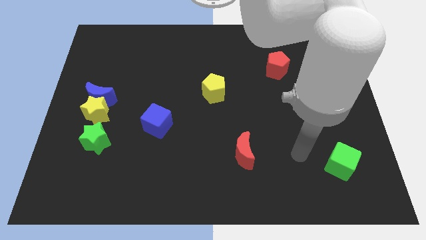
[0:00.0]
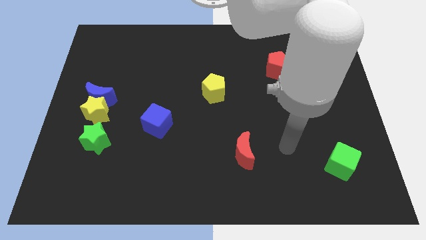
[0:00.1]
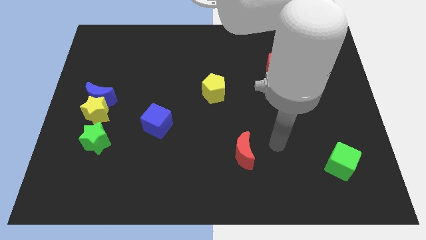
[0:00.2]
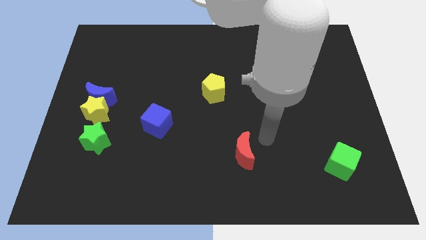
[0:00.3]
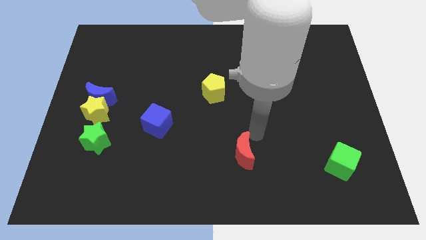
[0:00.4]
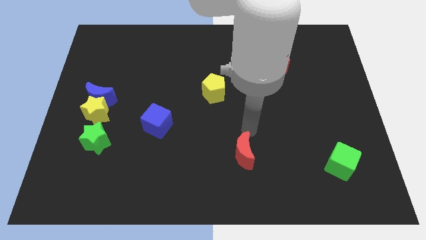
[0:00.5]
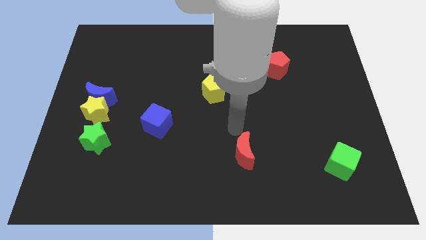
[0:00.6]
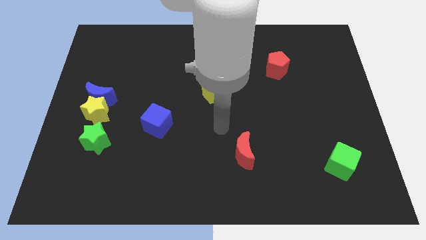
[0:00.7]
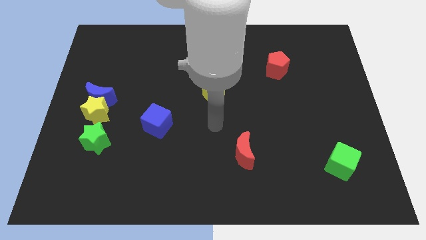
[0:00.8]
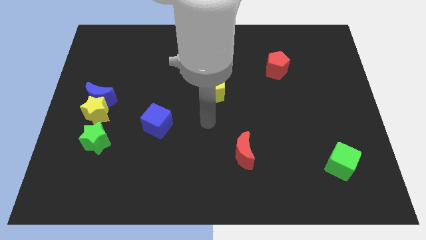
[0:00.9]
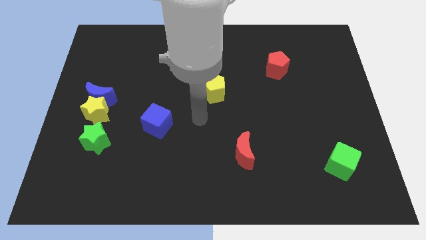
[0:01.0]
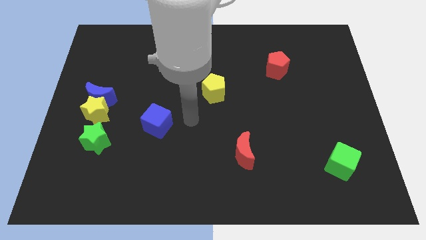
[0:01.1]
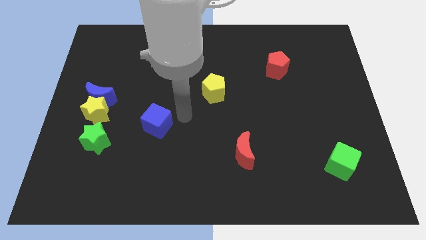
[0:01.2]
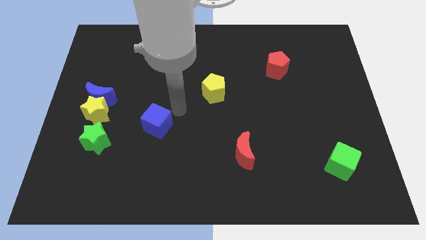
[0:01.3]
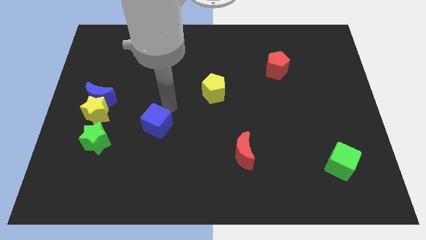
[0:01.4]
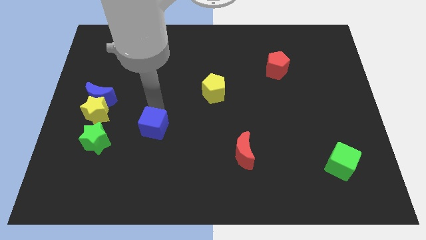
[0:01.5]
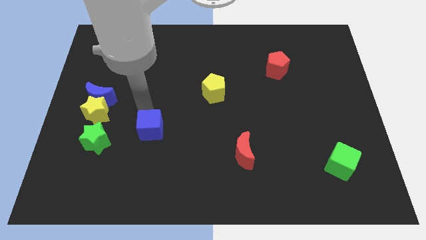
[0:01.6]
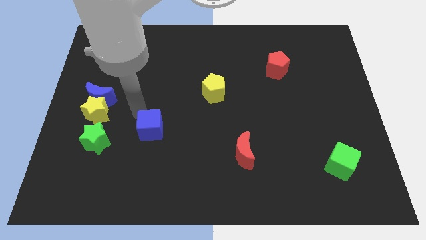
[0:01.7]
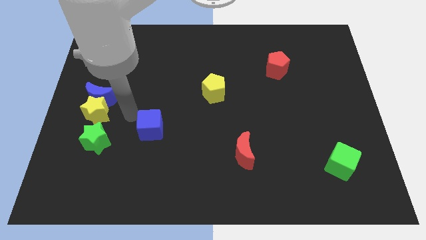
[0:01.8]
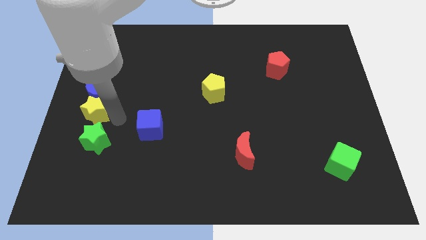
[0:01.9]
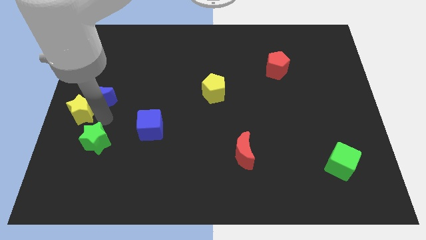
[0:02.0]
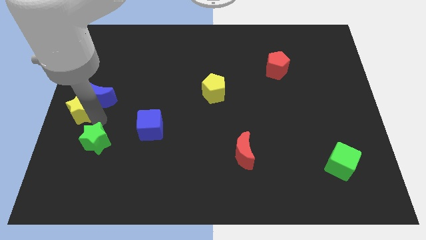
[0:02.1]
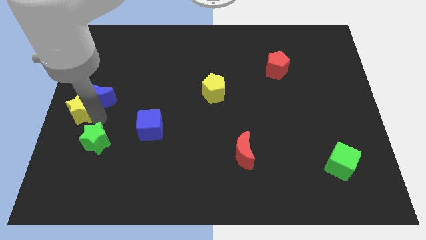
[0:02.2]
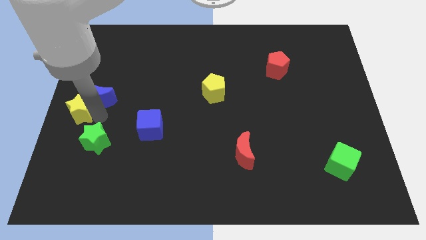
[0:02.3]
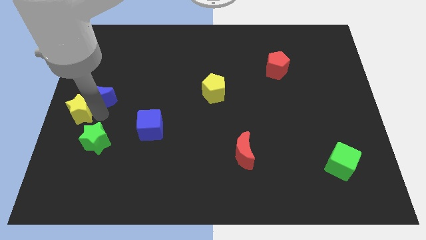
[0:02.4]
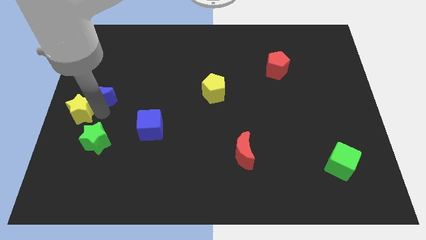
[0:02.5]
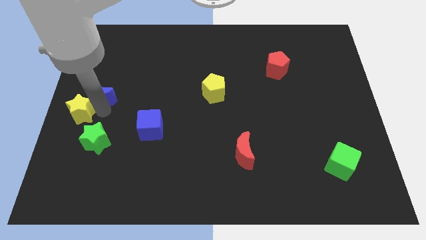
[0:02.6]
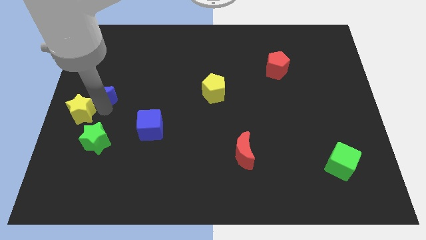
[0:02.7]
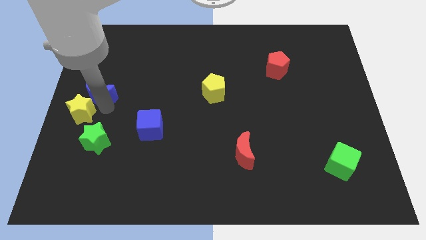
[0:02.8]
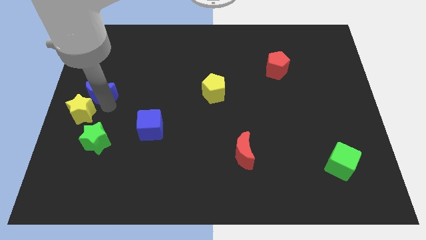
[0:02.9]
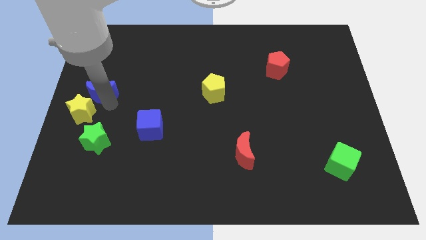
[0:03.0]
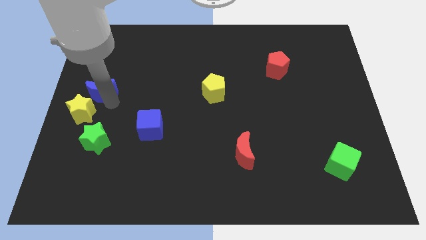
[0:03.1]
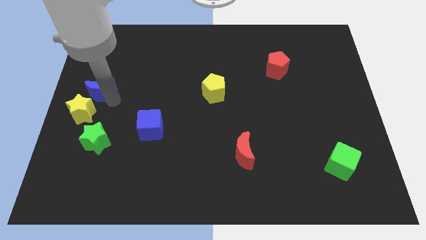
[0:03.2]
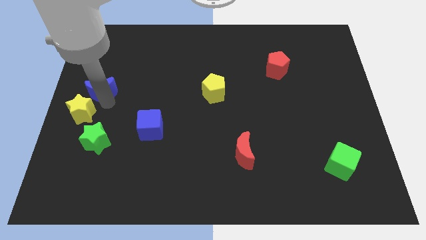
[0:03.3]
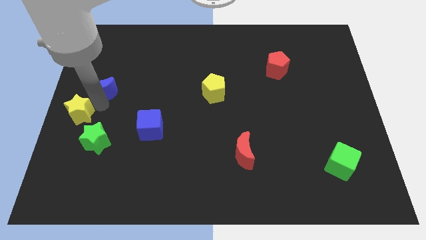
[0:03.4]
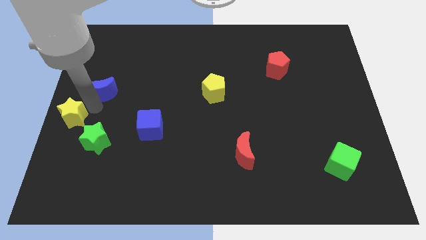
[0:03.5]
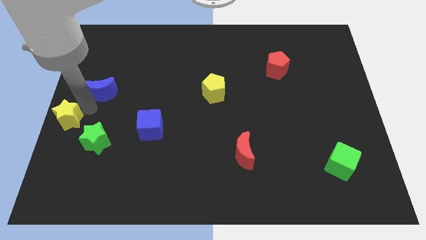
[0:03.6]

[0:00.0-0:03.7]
move the blue moon away from the yellow star

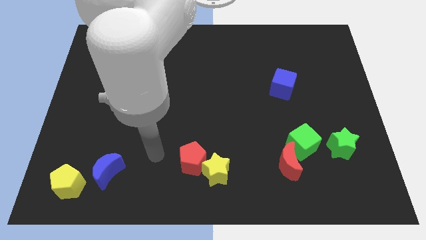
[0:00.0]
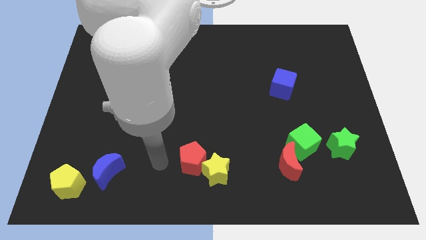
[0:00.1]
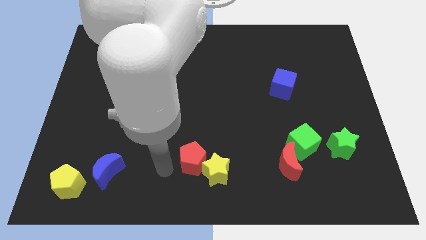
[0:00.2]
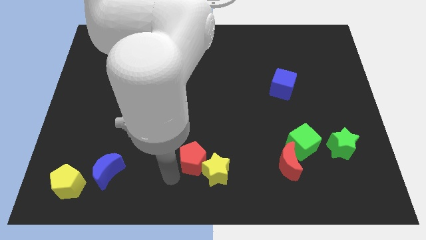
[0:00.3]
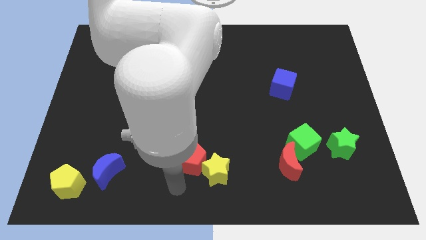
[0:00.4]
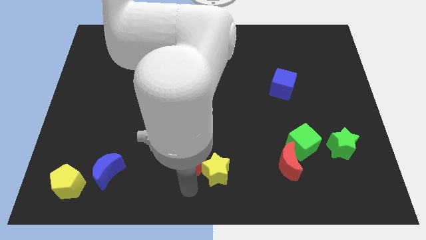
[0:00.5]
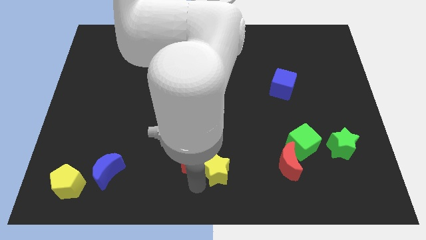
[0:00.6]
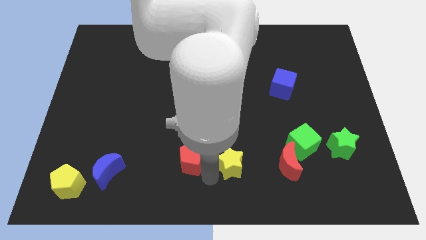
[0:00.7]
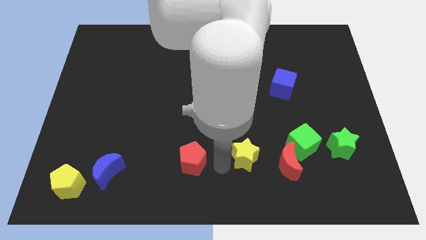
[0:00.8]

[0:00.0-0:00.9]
move the red pentagon away from the yellow star

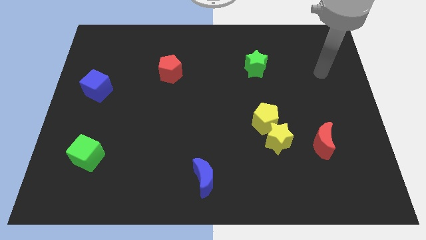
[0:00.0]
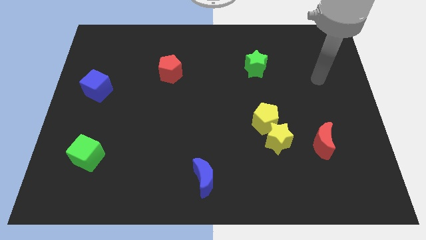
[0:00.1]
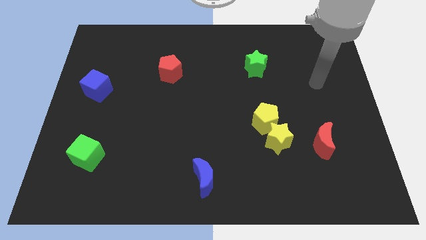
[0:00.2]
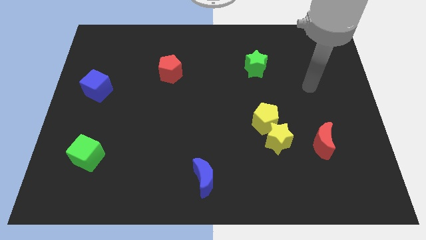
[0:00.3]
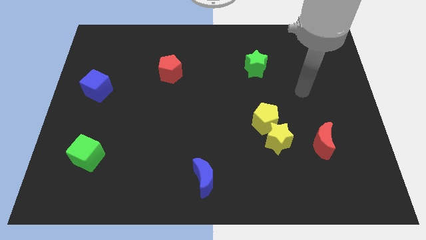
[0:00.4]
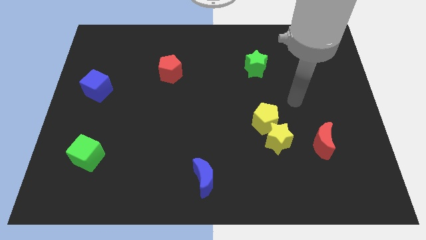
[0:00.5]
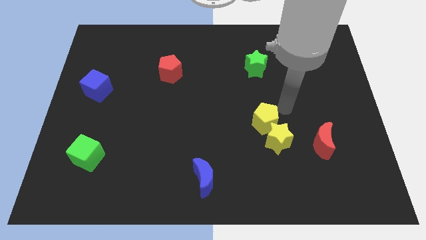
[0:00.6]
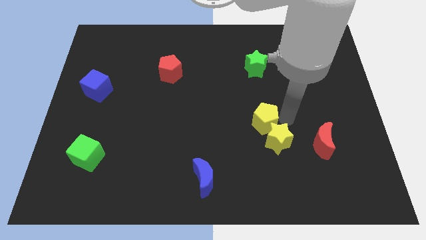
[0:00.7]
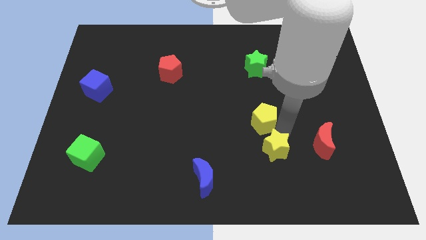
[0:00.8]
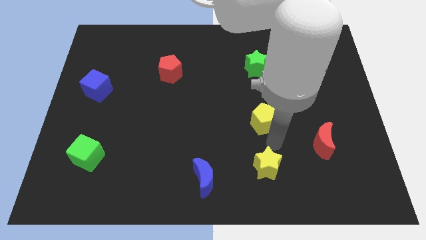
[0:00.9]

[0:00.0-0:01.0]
move the yellow pentagon away from the yellow star

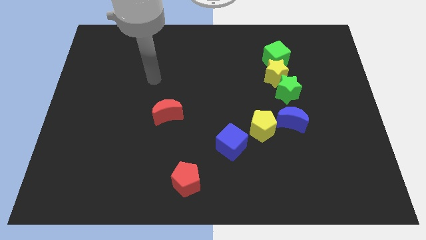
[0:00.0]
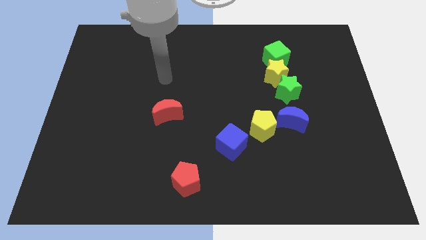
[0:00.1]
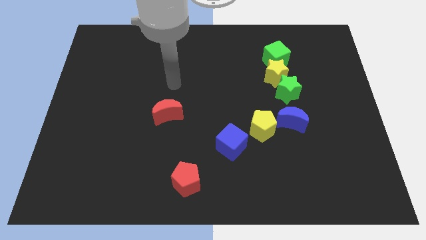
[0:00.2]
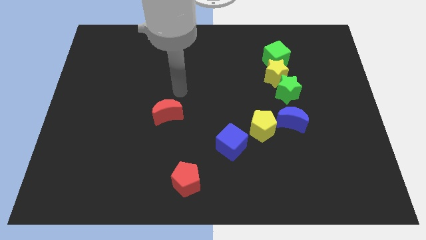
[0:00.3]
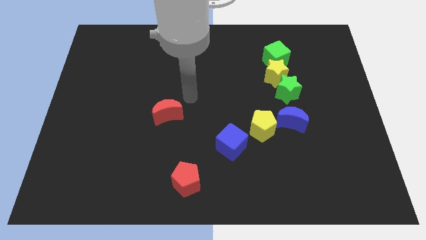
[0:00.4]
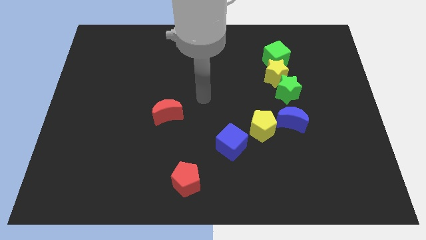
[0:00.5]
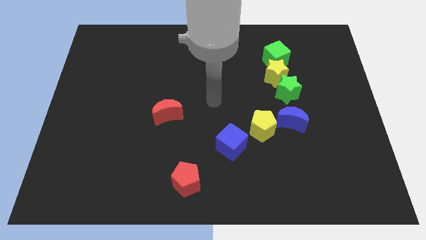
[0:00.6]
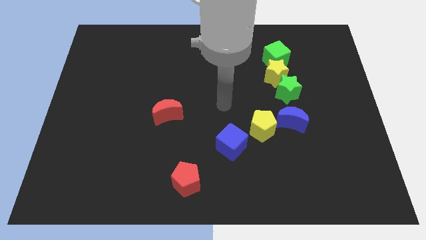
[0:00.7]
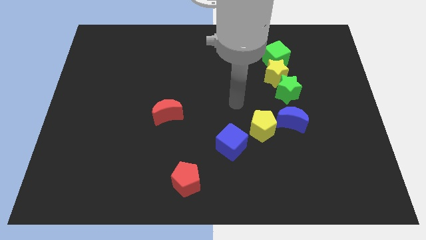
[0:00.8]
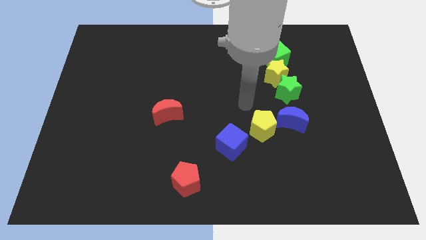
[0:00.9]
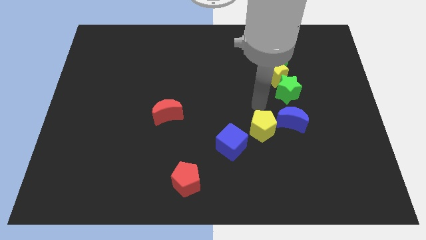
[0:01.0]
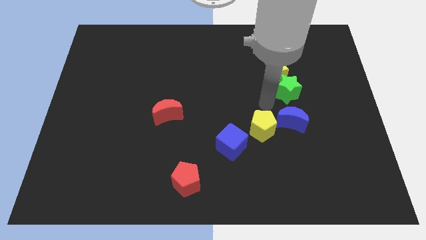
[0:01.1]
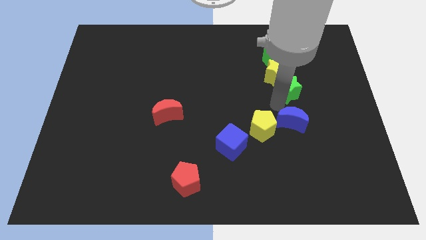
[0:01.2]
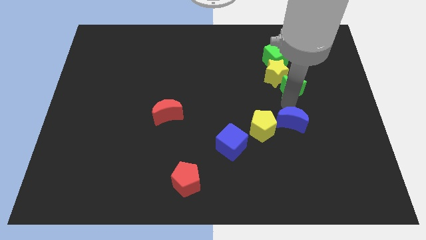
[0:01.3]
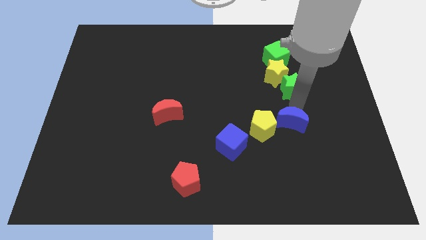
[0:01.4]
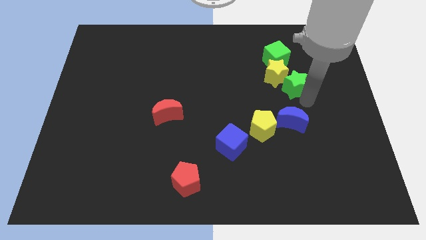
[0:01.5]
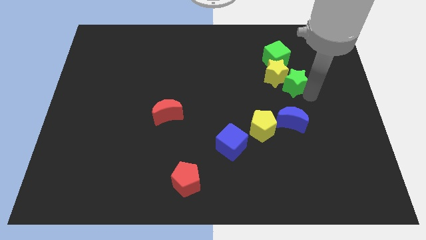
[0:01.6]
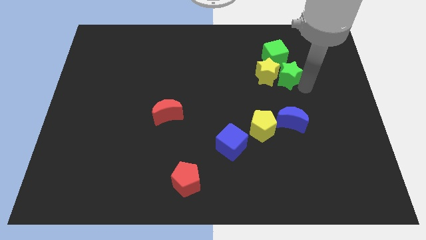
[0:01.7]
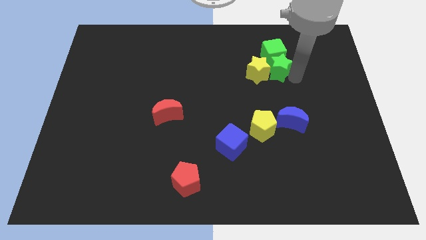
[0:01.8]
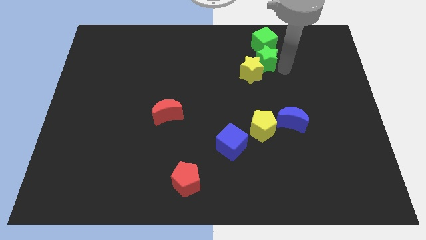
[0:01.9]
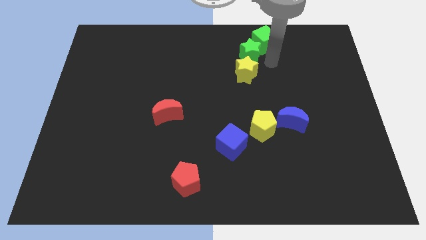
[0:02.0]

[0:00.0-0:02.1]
separate the yellow star from the green star and green cube

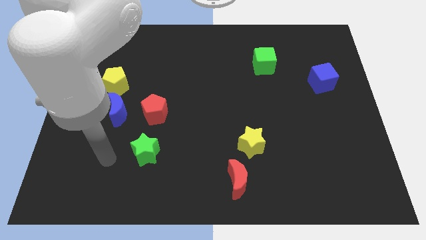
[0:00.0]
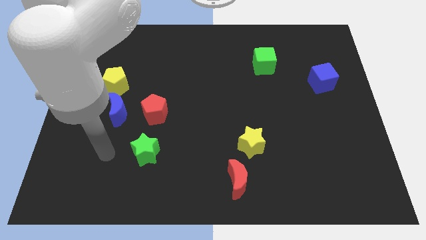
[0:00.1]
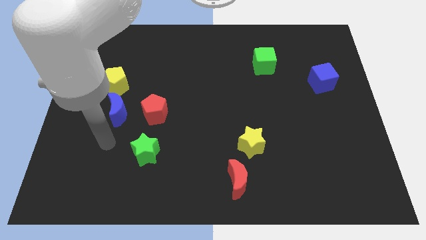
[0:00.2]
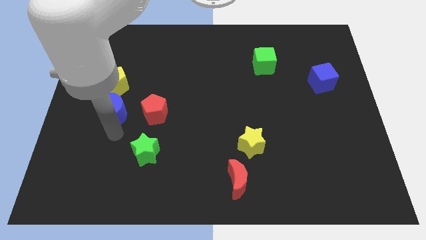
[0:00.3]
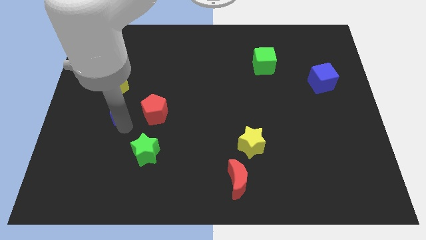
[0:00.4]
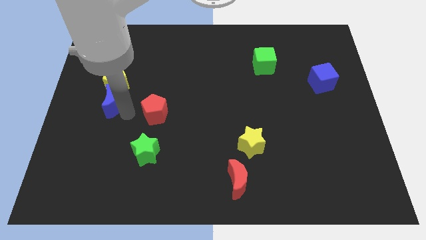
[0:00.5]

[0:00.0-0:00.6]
separate the red pentagon from the blue moon

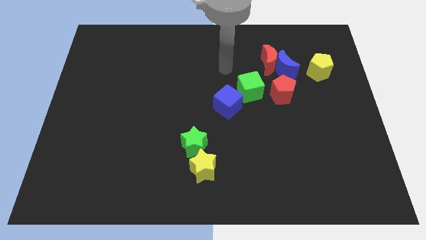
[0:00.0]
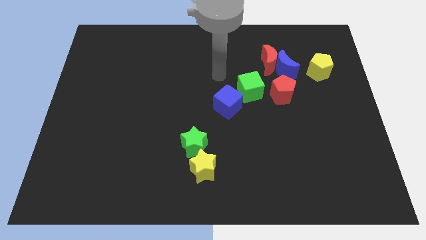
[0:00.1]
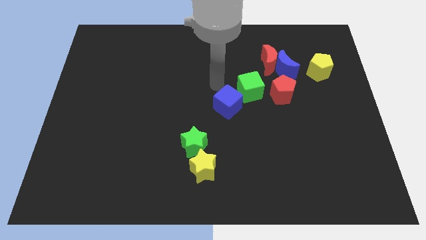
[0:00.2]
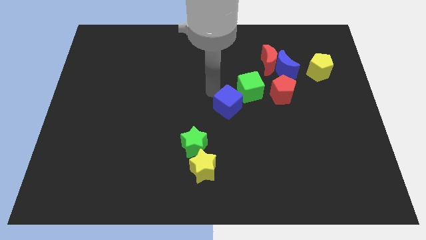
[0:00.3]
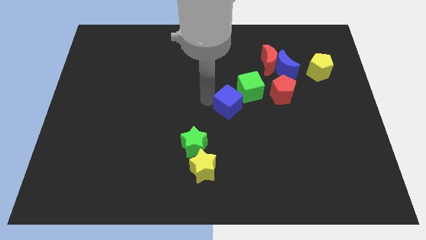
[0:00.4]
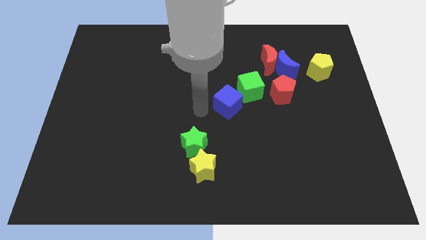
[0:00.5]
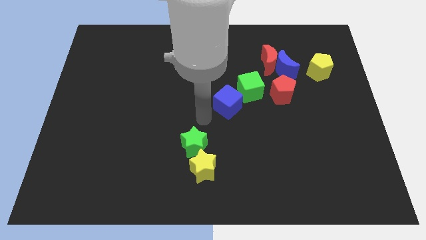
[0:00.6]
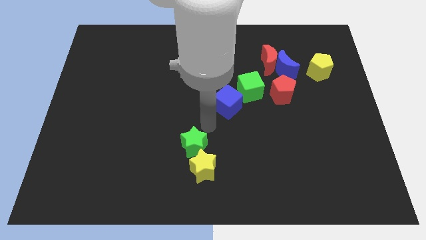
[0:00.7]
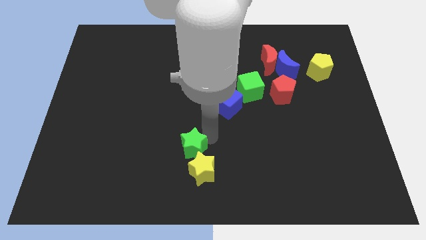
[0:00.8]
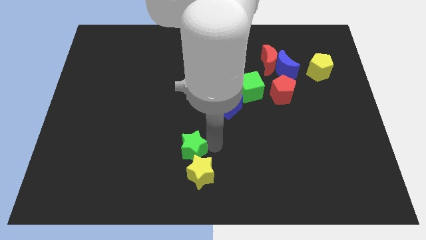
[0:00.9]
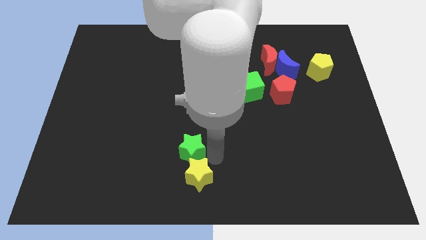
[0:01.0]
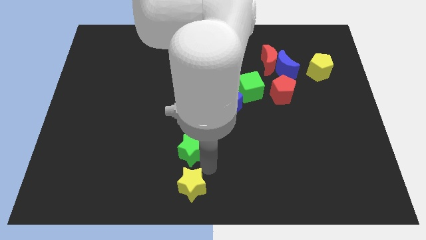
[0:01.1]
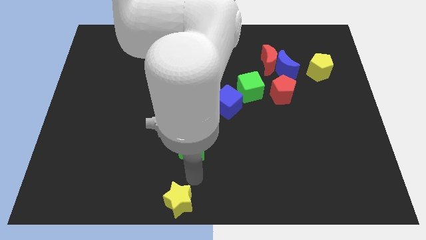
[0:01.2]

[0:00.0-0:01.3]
move the green star away from the yellow star
